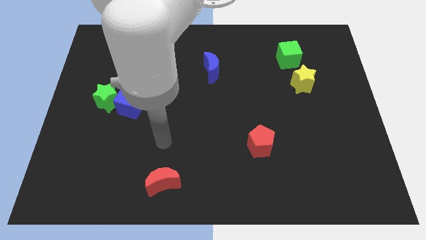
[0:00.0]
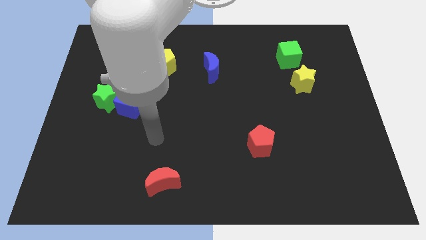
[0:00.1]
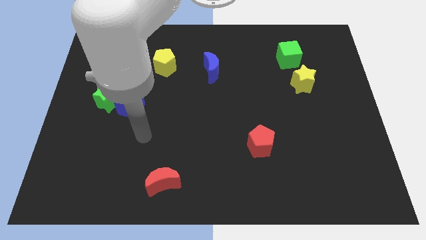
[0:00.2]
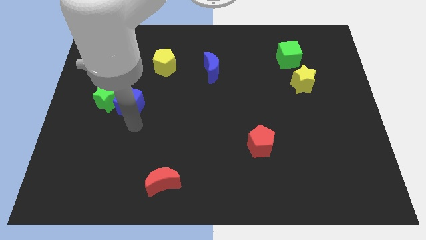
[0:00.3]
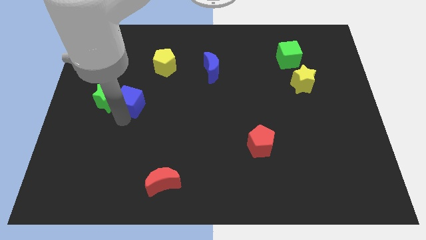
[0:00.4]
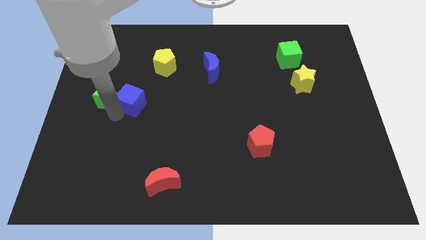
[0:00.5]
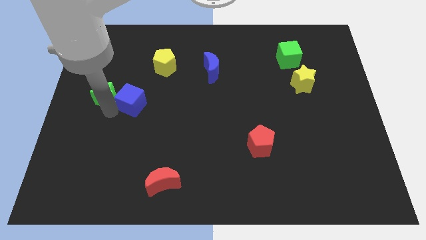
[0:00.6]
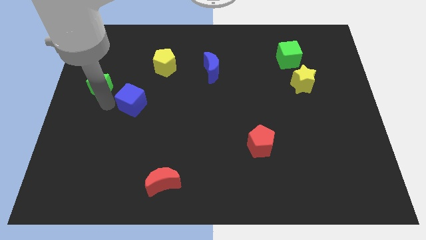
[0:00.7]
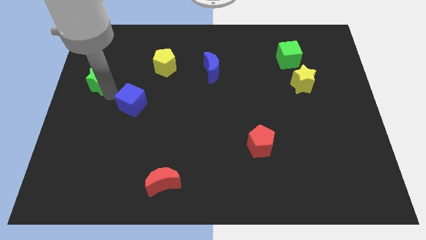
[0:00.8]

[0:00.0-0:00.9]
separate the blue cube from the green star

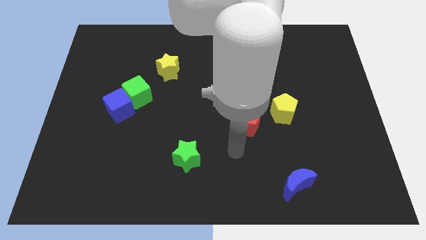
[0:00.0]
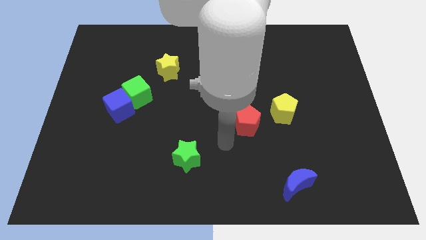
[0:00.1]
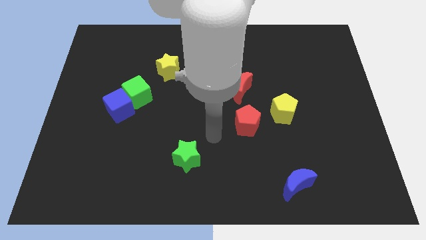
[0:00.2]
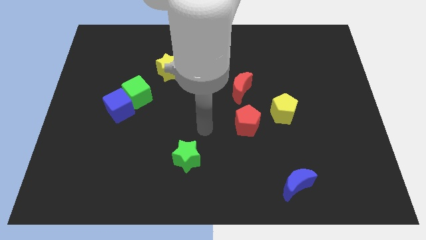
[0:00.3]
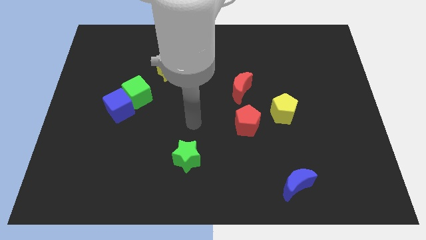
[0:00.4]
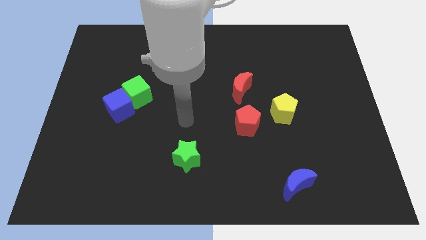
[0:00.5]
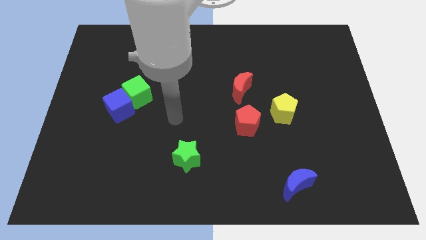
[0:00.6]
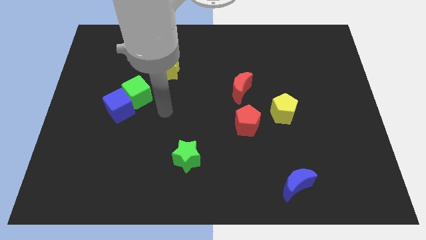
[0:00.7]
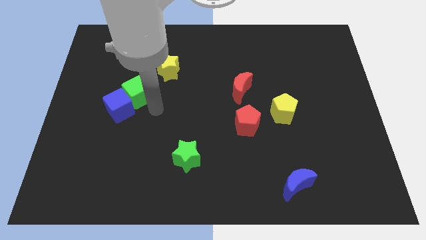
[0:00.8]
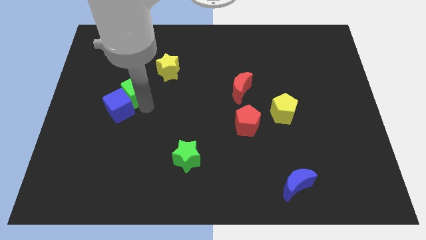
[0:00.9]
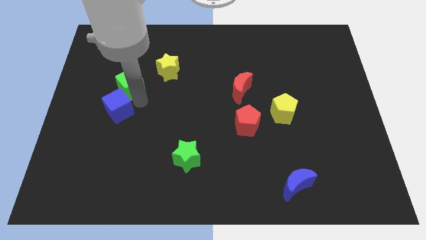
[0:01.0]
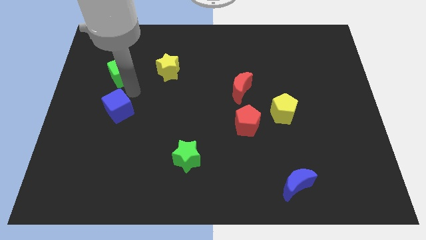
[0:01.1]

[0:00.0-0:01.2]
pull the blue cube apart from the green cube

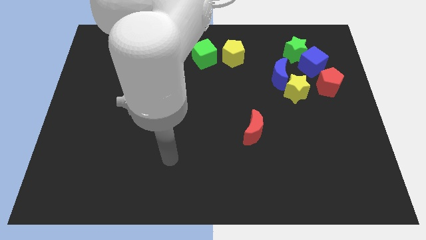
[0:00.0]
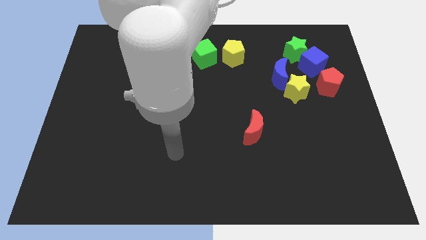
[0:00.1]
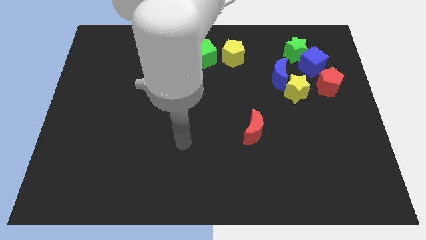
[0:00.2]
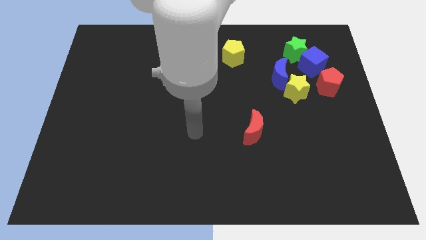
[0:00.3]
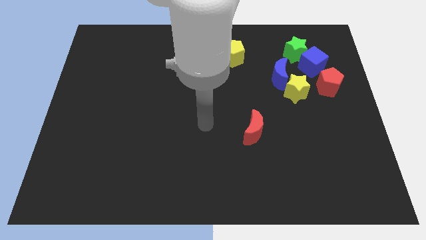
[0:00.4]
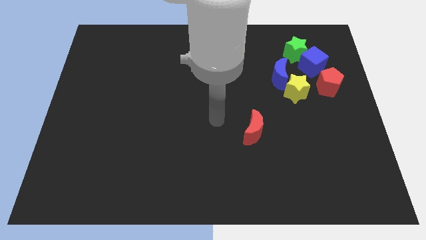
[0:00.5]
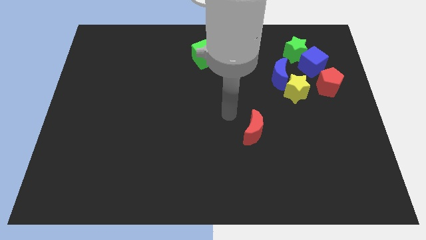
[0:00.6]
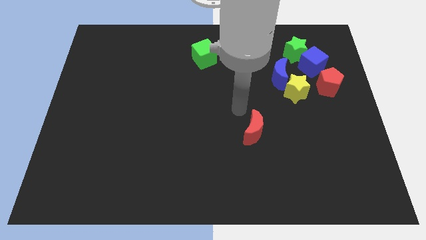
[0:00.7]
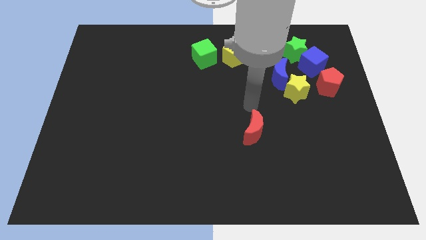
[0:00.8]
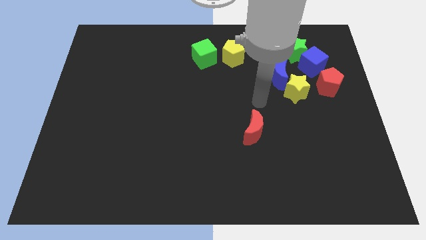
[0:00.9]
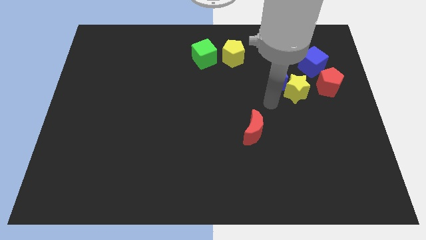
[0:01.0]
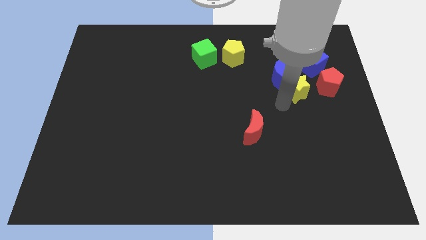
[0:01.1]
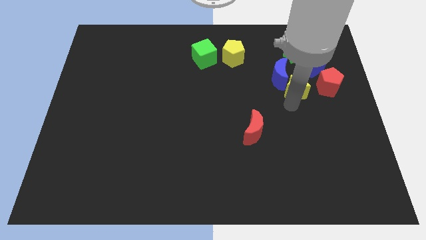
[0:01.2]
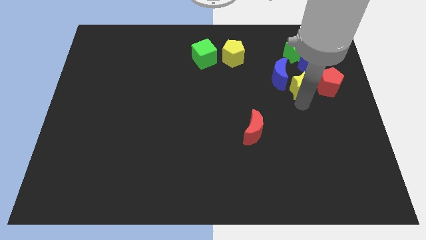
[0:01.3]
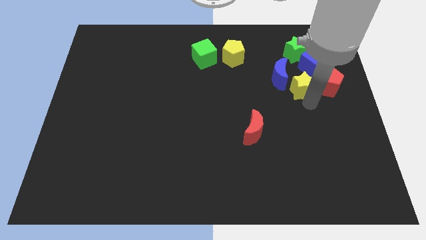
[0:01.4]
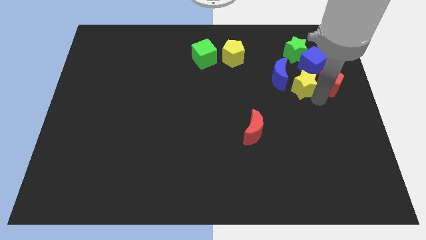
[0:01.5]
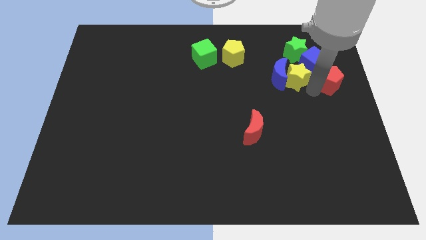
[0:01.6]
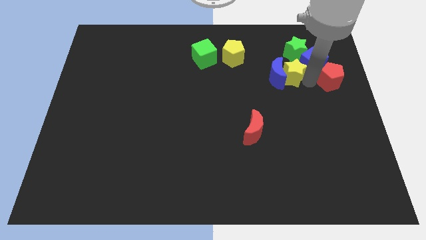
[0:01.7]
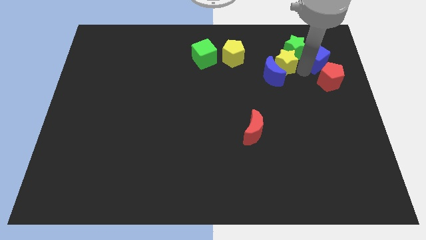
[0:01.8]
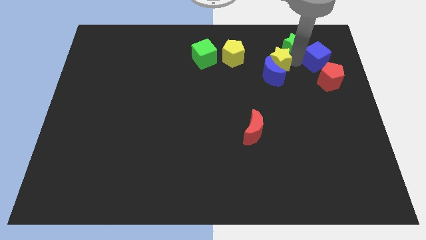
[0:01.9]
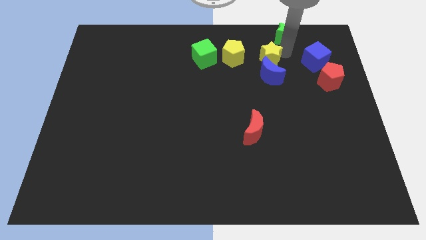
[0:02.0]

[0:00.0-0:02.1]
move the yellow star away from the blue moon and red pentagon

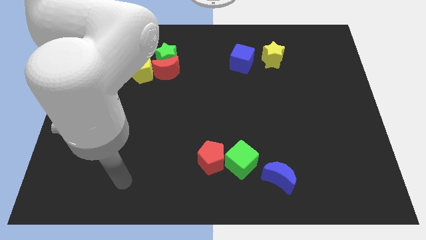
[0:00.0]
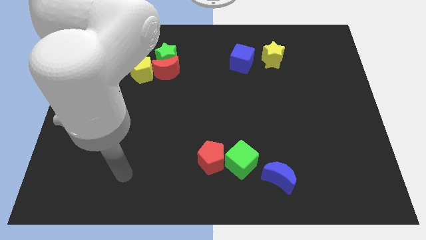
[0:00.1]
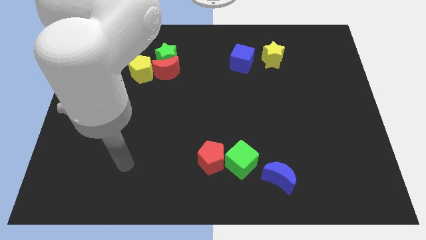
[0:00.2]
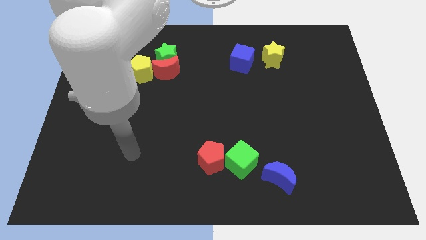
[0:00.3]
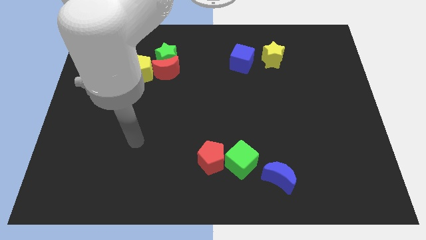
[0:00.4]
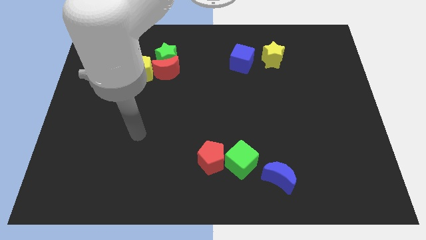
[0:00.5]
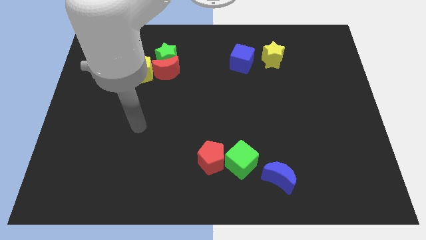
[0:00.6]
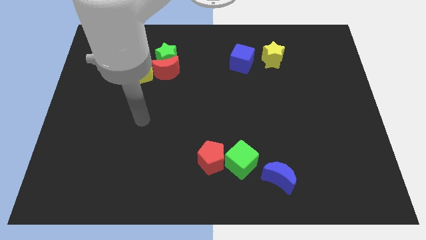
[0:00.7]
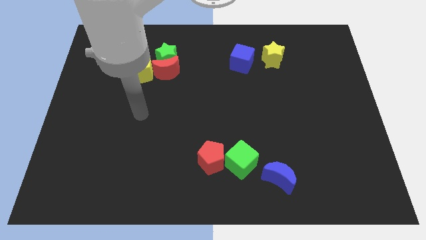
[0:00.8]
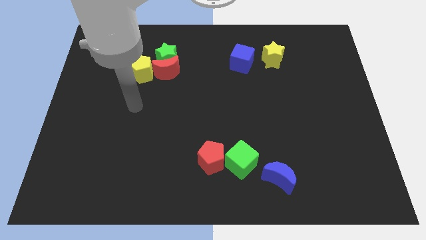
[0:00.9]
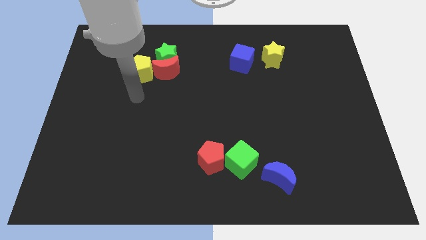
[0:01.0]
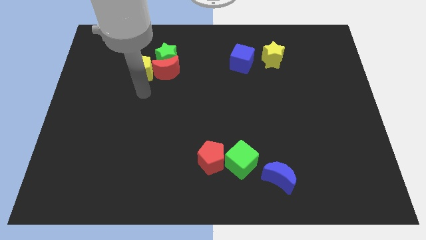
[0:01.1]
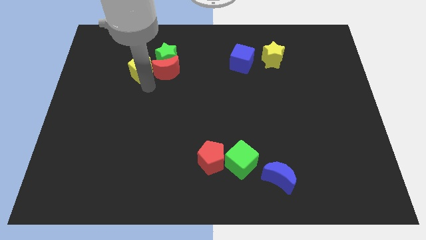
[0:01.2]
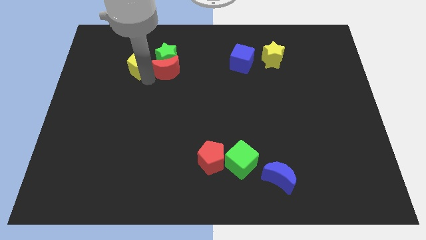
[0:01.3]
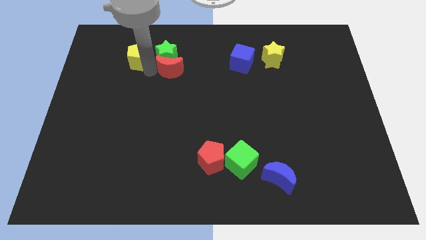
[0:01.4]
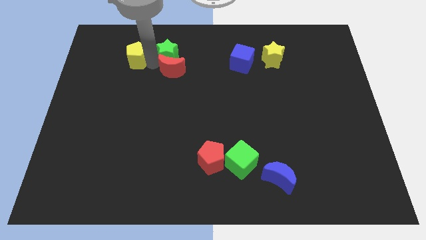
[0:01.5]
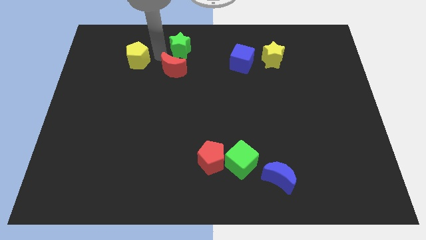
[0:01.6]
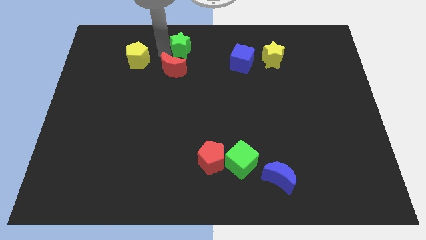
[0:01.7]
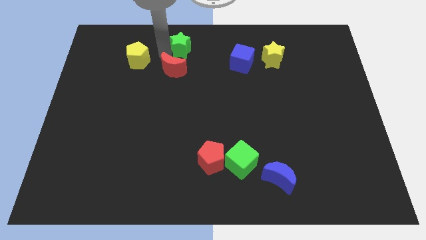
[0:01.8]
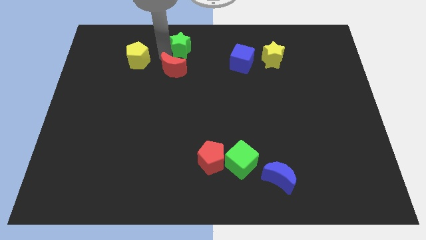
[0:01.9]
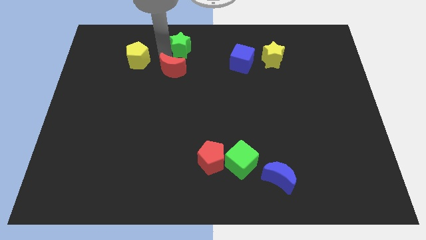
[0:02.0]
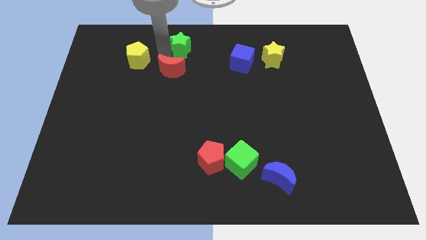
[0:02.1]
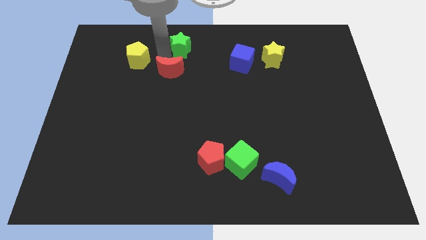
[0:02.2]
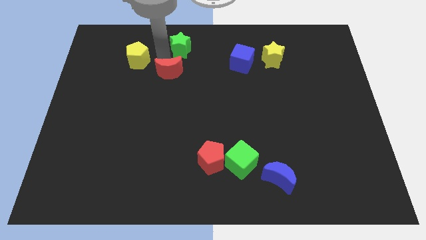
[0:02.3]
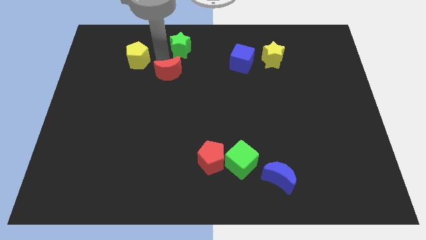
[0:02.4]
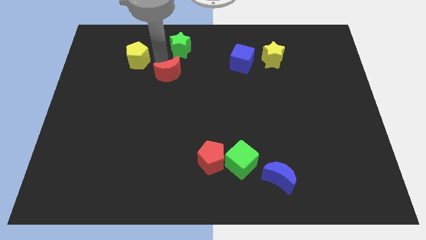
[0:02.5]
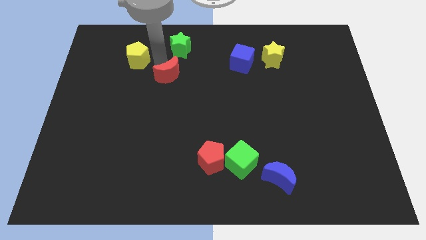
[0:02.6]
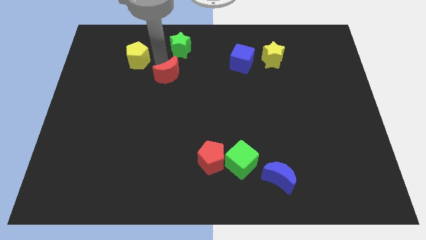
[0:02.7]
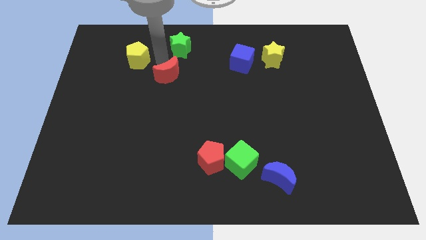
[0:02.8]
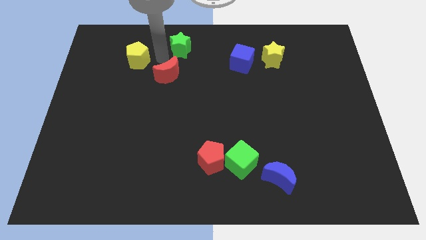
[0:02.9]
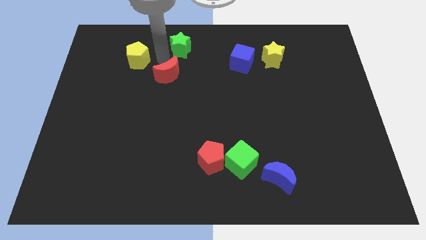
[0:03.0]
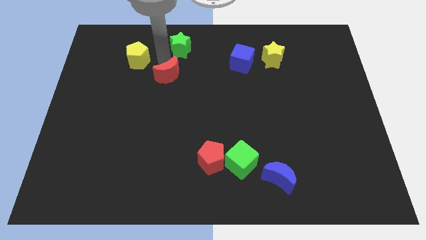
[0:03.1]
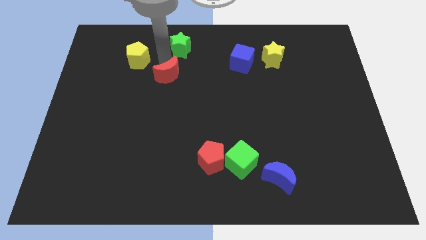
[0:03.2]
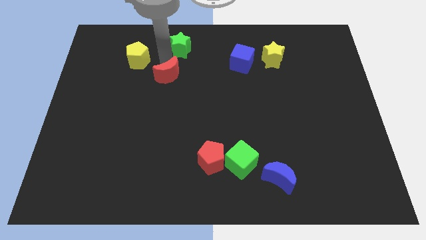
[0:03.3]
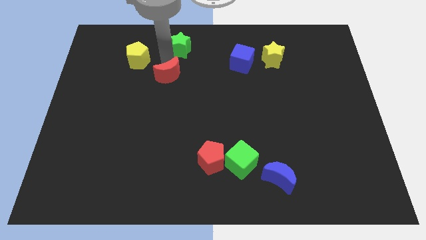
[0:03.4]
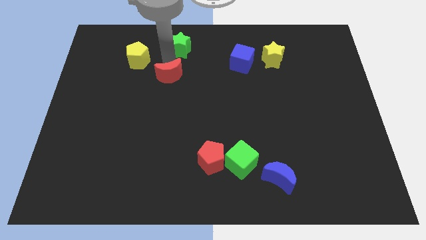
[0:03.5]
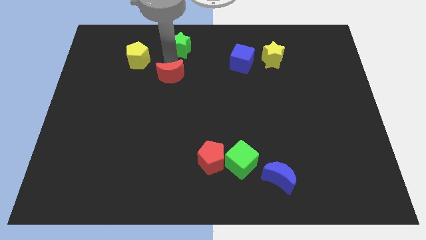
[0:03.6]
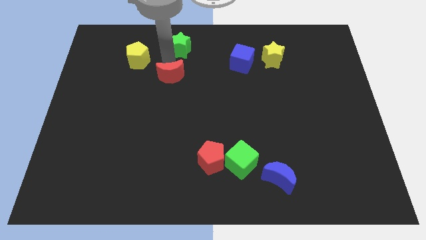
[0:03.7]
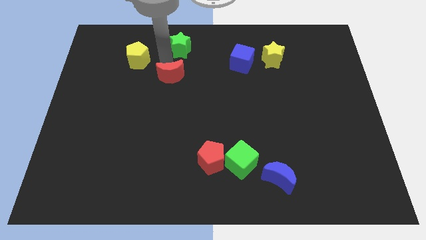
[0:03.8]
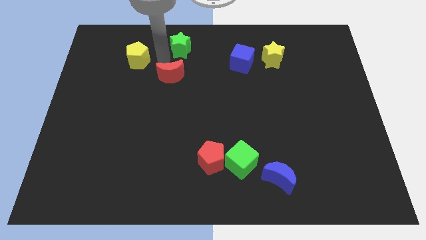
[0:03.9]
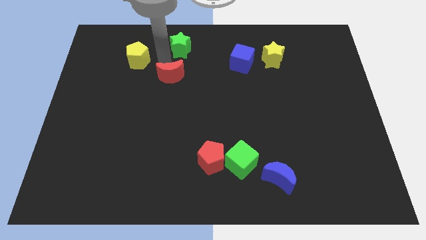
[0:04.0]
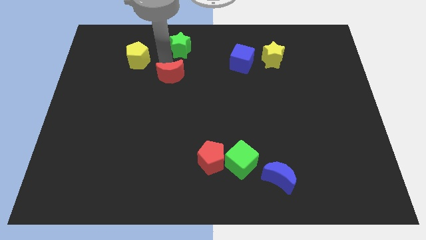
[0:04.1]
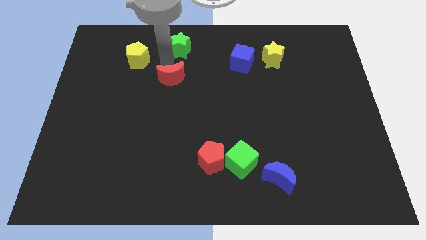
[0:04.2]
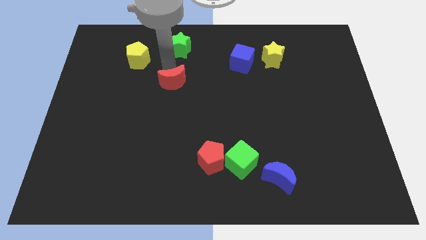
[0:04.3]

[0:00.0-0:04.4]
pull the red moon apart from the green star and yellow pentagon

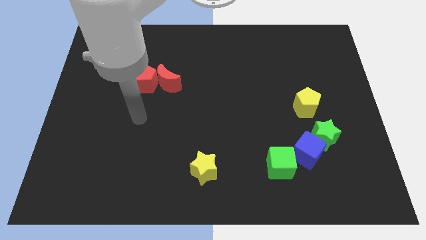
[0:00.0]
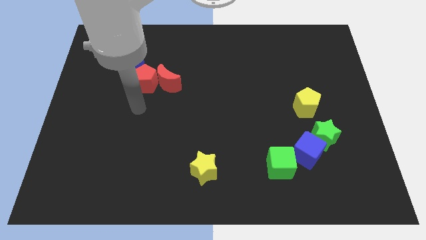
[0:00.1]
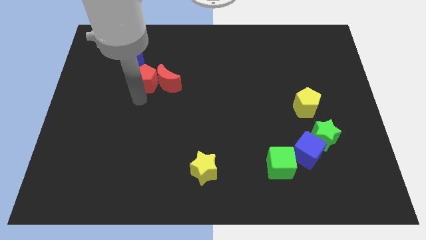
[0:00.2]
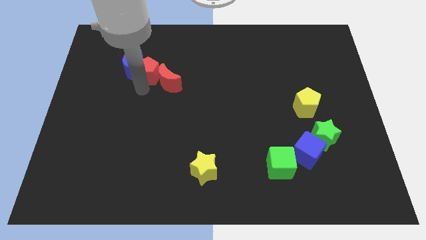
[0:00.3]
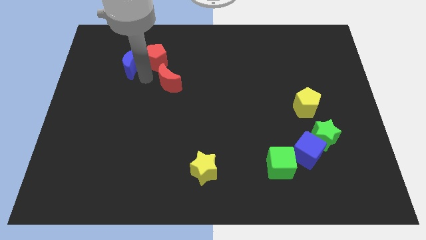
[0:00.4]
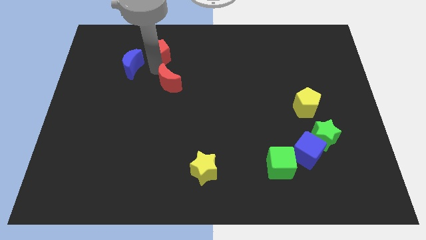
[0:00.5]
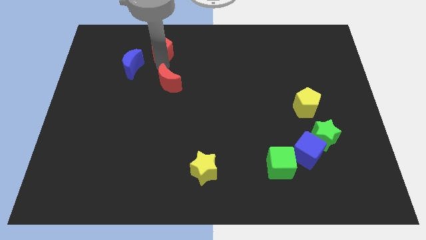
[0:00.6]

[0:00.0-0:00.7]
separate the red moon from the red pentagon

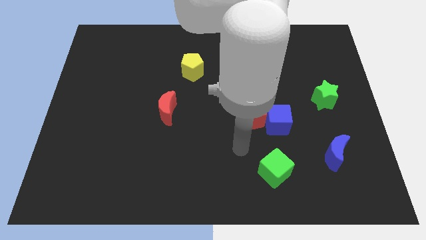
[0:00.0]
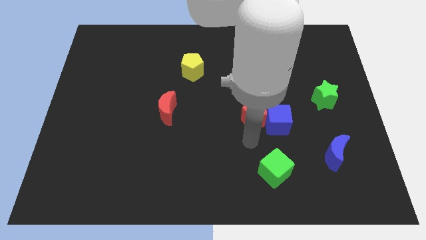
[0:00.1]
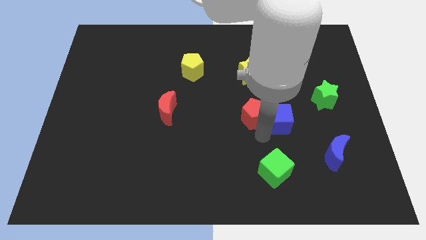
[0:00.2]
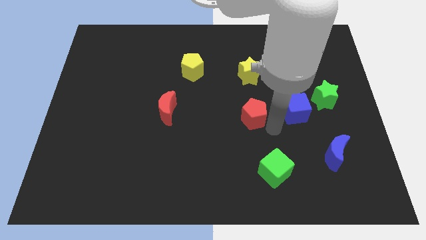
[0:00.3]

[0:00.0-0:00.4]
move the red pentagon away from the blue cube
